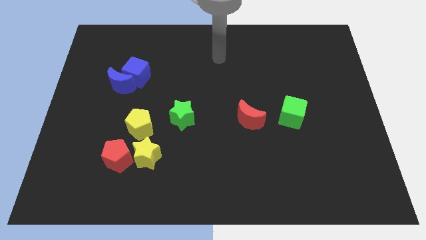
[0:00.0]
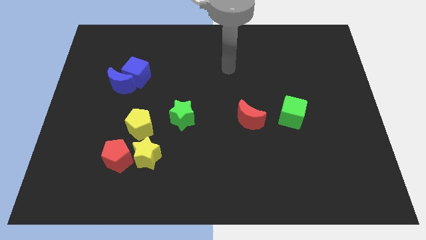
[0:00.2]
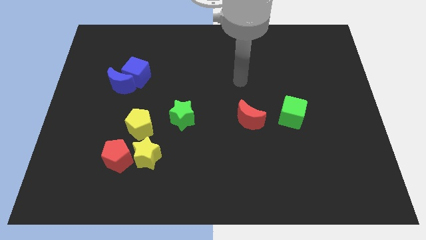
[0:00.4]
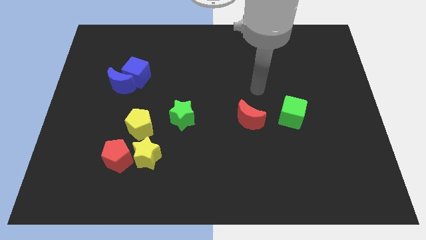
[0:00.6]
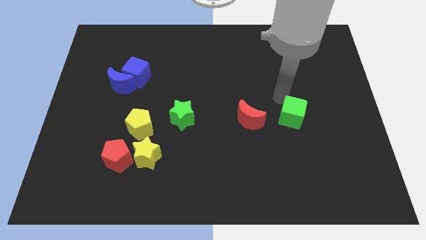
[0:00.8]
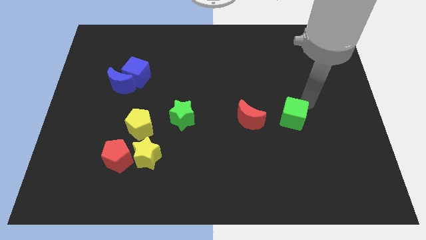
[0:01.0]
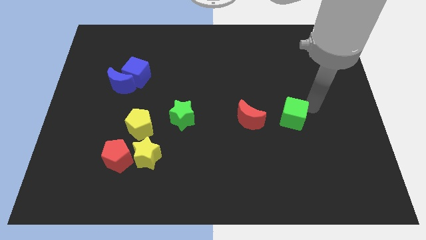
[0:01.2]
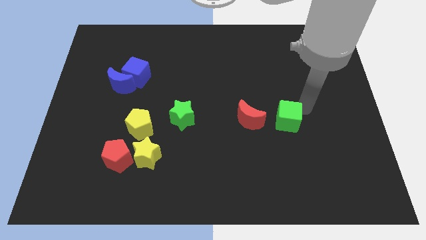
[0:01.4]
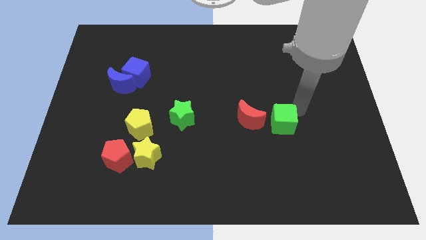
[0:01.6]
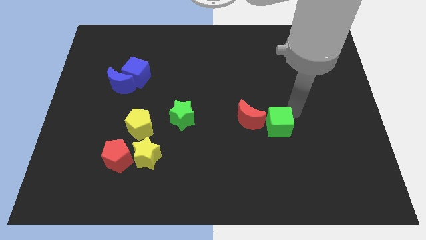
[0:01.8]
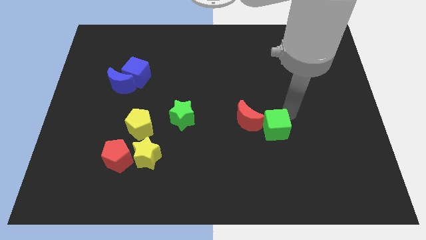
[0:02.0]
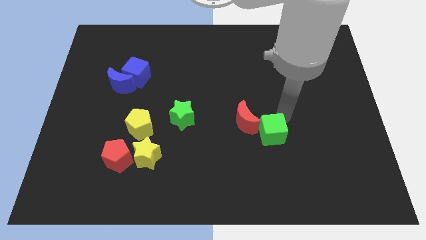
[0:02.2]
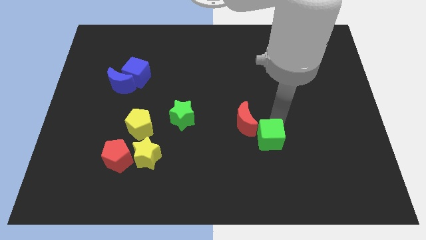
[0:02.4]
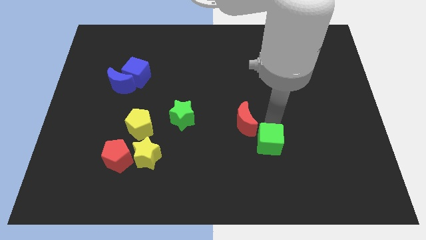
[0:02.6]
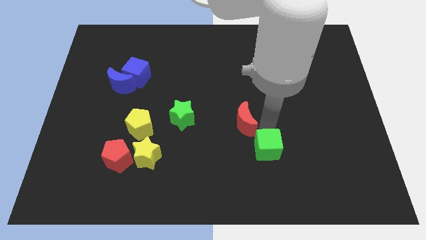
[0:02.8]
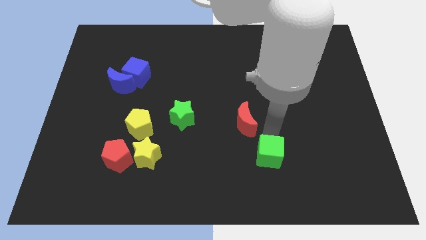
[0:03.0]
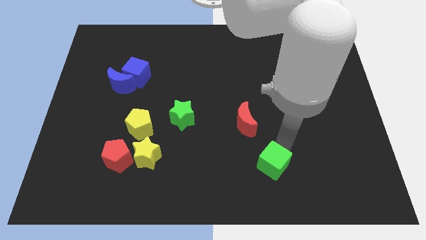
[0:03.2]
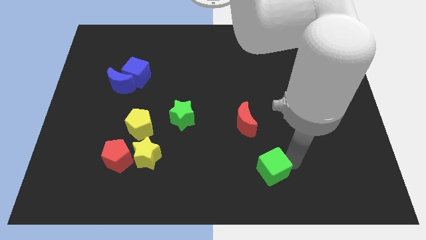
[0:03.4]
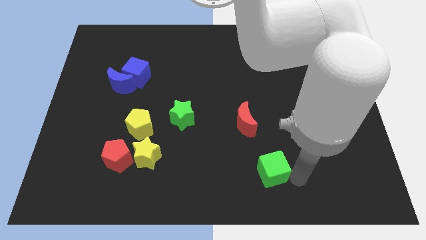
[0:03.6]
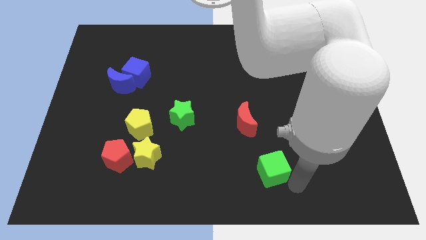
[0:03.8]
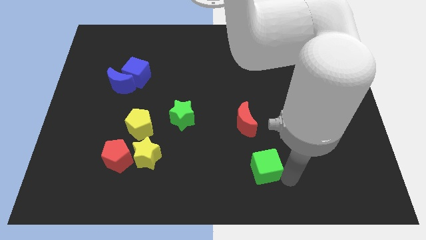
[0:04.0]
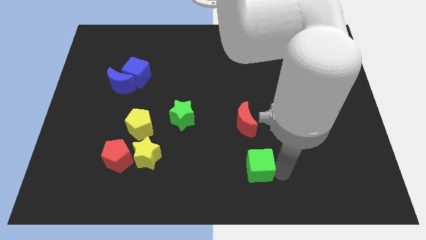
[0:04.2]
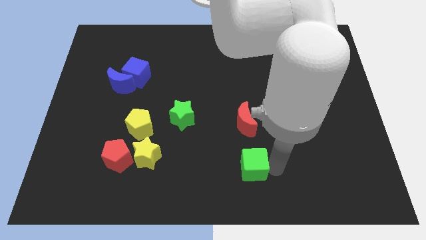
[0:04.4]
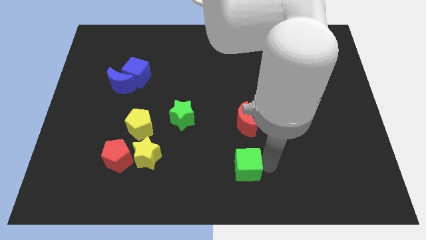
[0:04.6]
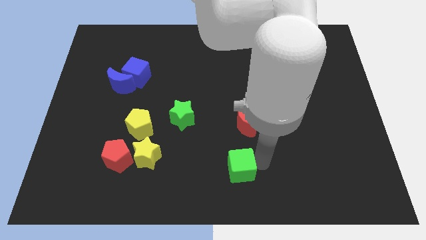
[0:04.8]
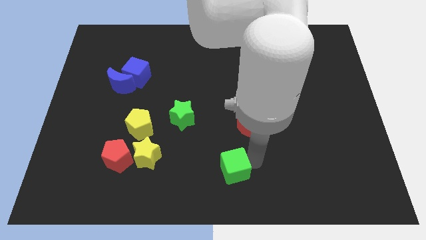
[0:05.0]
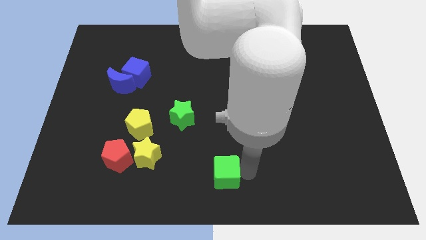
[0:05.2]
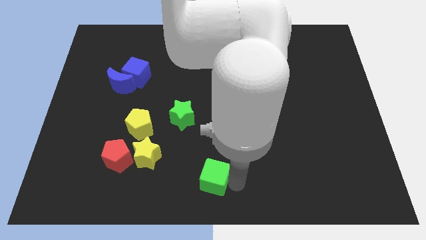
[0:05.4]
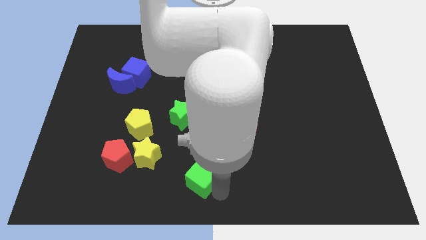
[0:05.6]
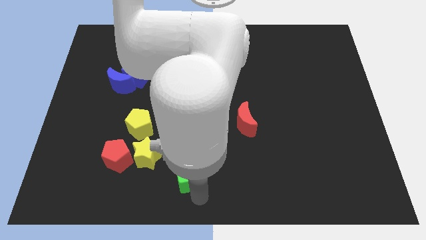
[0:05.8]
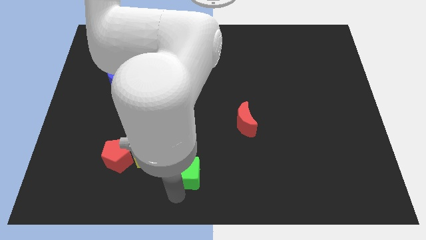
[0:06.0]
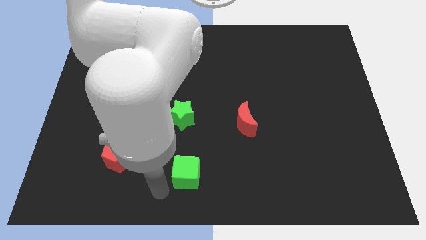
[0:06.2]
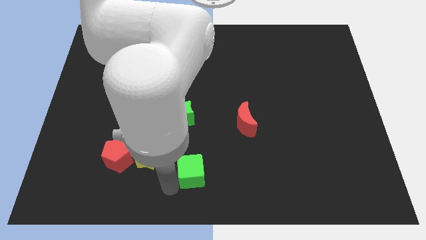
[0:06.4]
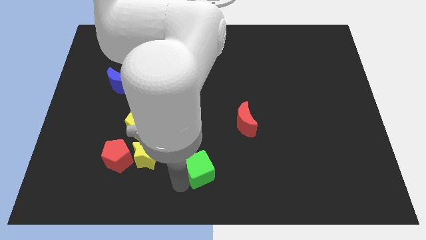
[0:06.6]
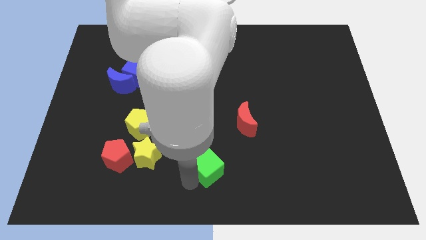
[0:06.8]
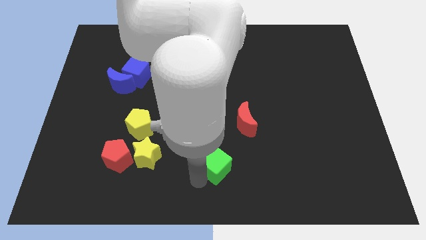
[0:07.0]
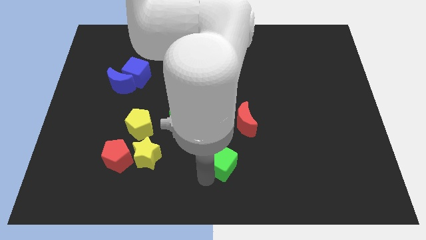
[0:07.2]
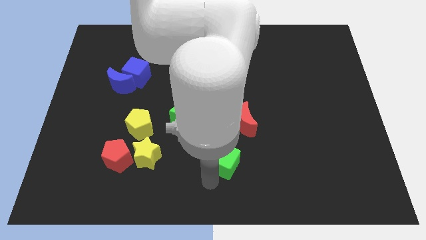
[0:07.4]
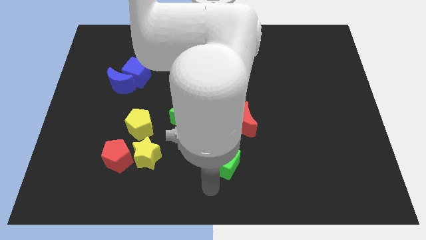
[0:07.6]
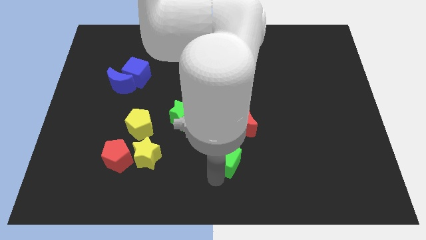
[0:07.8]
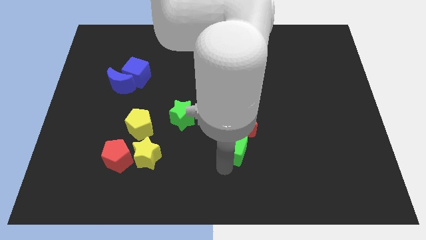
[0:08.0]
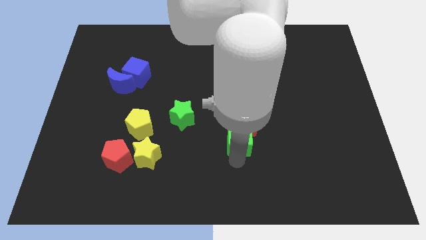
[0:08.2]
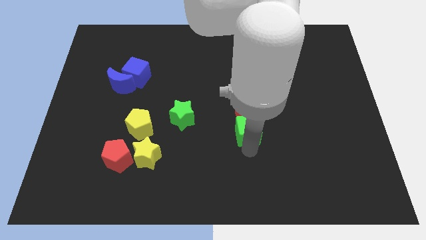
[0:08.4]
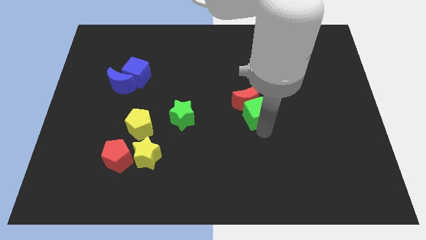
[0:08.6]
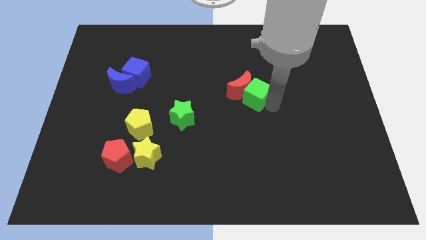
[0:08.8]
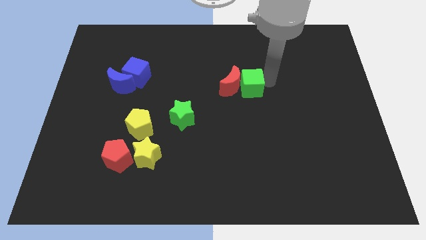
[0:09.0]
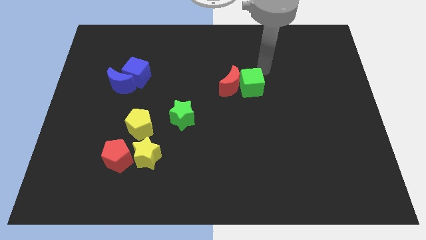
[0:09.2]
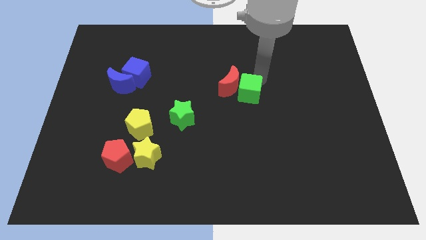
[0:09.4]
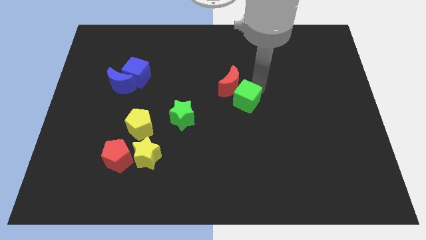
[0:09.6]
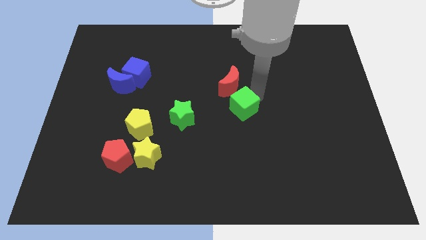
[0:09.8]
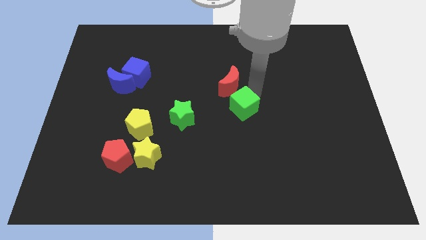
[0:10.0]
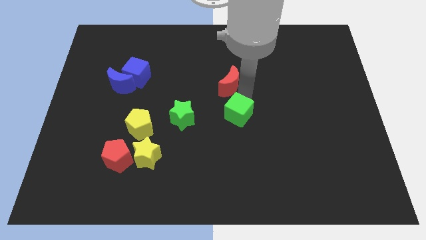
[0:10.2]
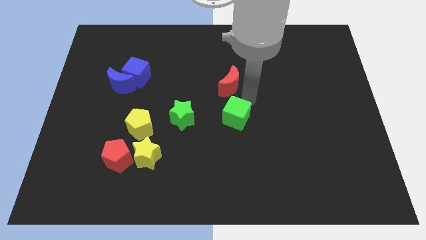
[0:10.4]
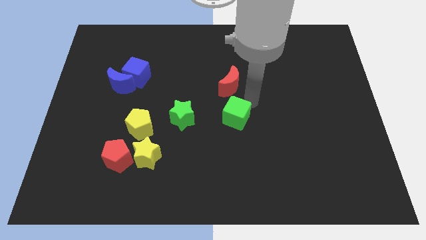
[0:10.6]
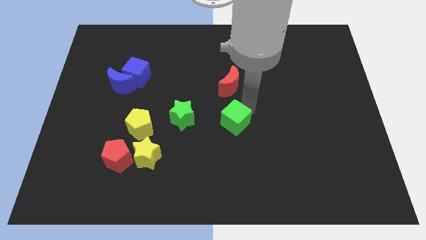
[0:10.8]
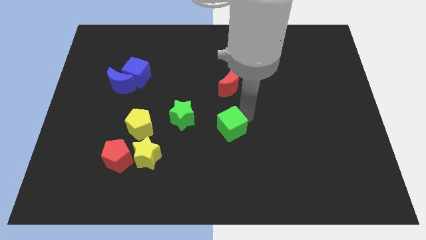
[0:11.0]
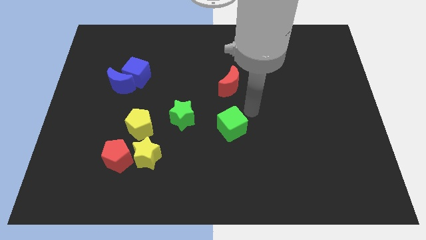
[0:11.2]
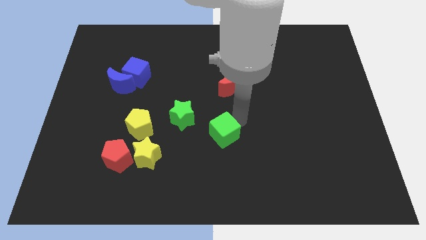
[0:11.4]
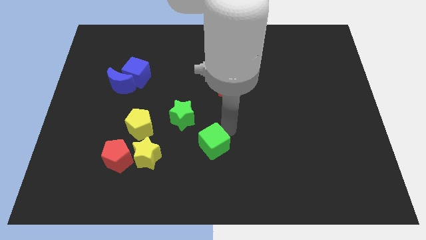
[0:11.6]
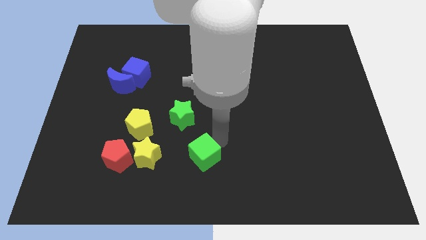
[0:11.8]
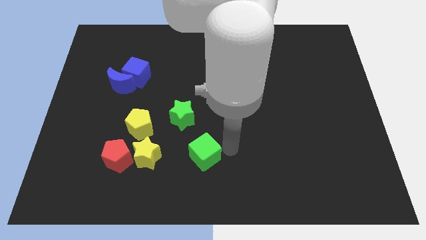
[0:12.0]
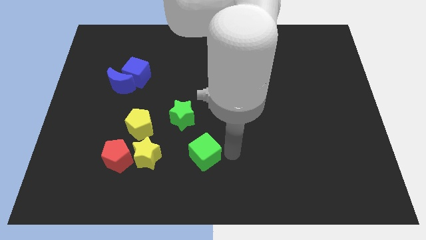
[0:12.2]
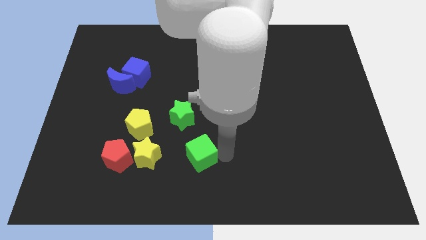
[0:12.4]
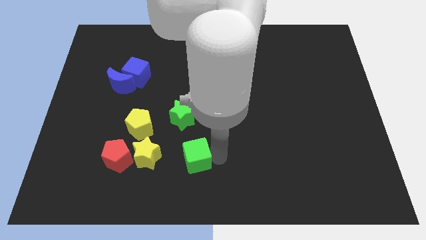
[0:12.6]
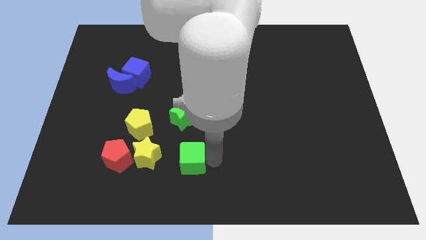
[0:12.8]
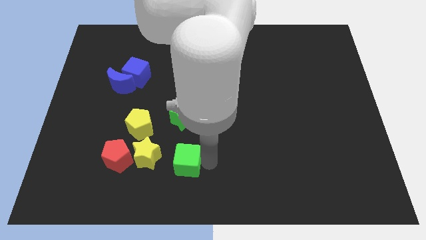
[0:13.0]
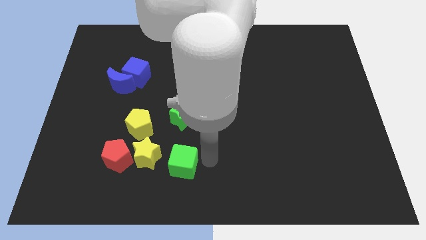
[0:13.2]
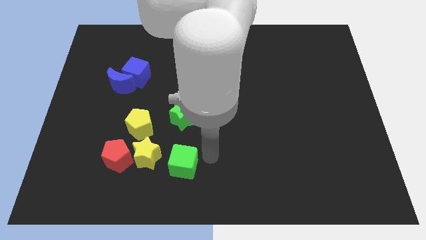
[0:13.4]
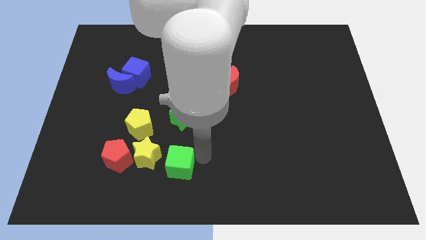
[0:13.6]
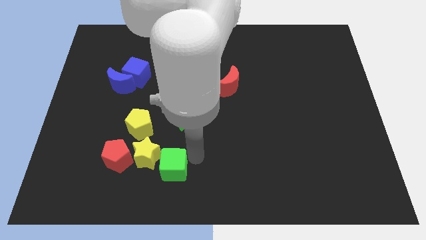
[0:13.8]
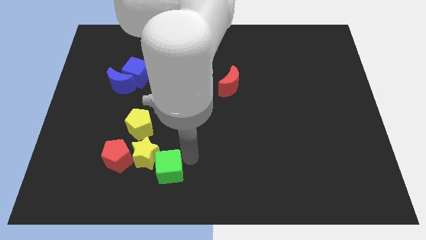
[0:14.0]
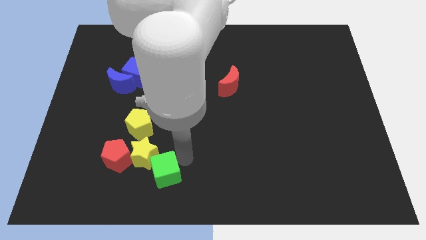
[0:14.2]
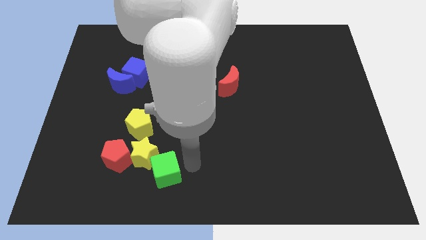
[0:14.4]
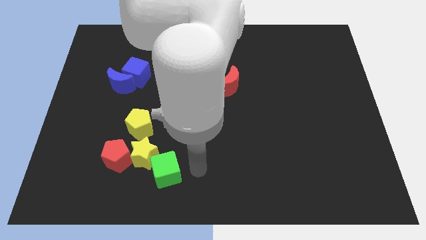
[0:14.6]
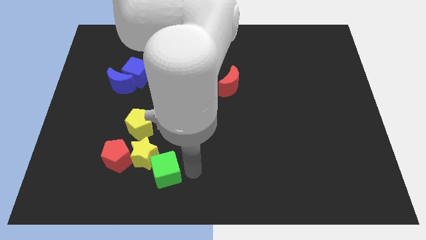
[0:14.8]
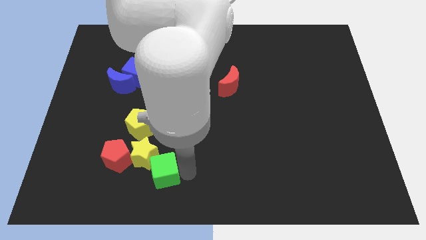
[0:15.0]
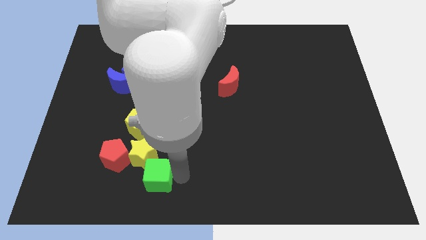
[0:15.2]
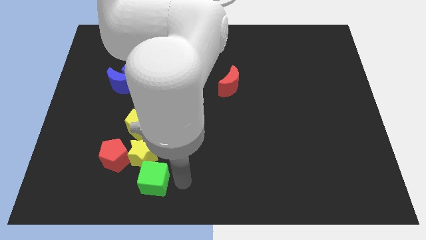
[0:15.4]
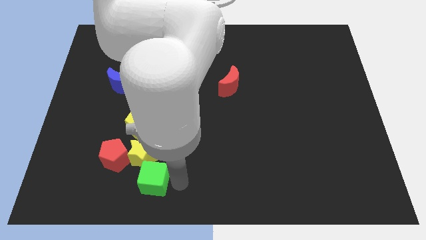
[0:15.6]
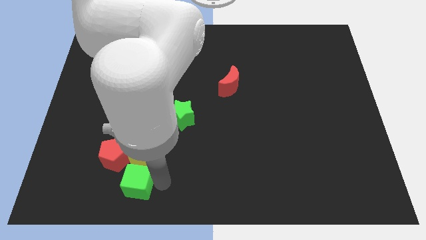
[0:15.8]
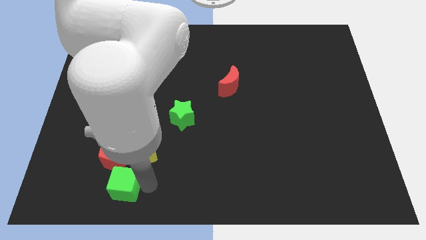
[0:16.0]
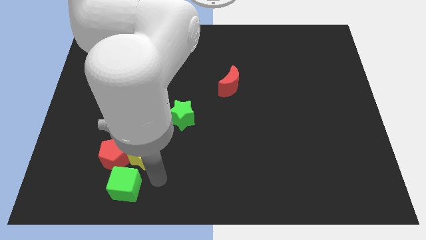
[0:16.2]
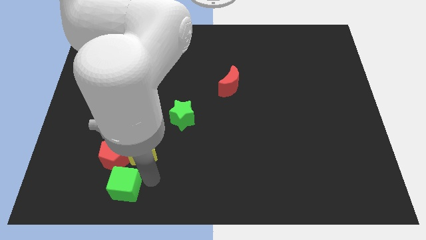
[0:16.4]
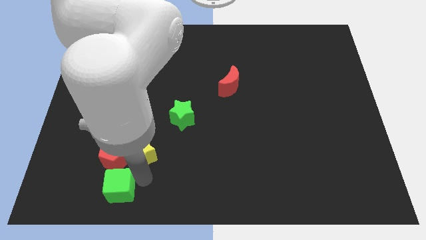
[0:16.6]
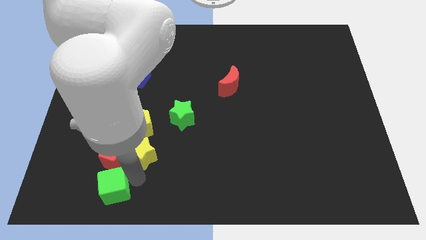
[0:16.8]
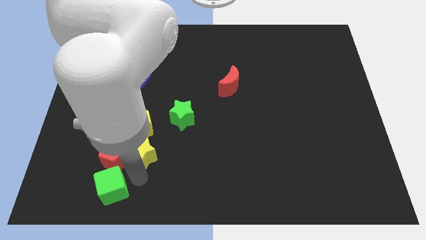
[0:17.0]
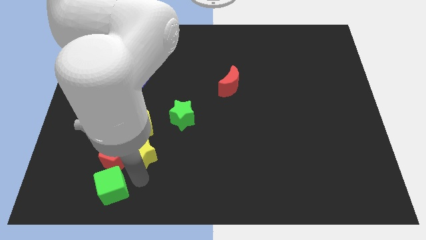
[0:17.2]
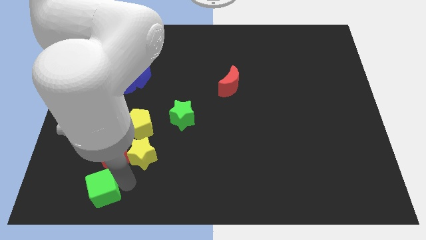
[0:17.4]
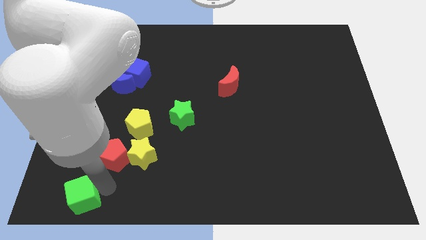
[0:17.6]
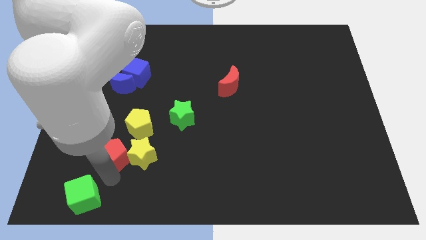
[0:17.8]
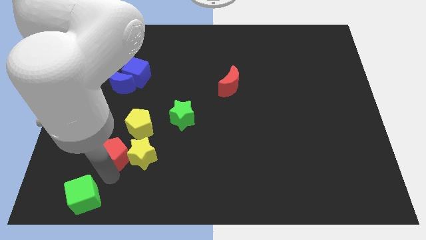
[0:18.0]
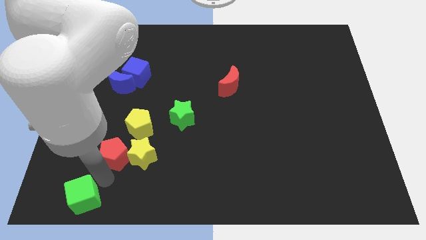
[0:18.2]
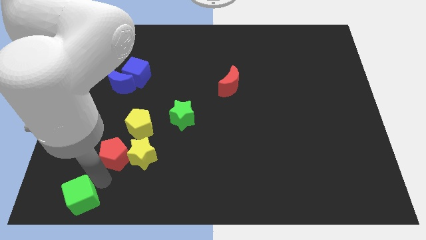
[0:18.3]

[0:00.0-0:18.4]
slide the green cube to the bottom left
